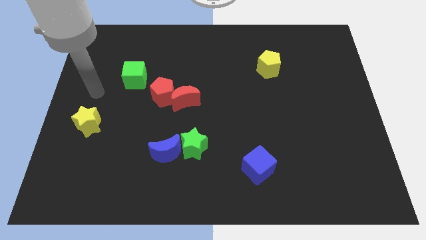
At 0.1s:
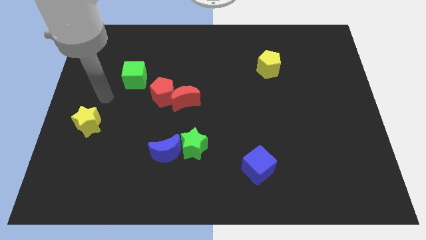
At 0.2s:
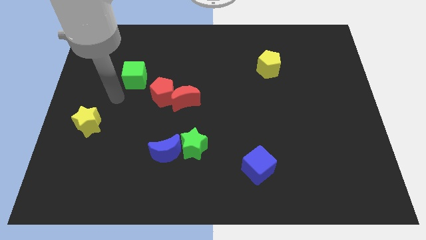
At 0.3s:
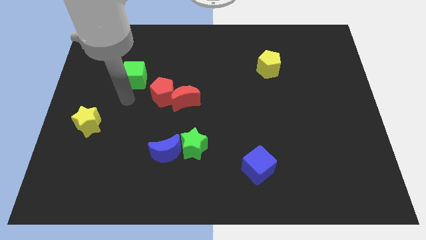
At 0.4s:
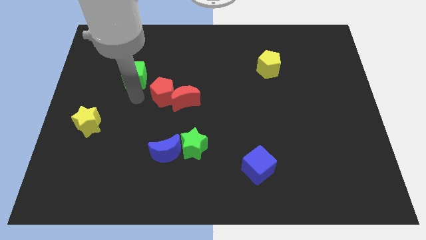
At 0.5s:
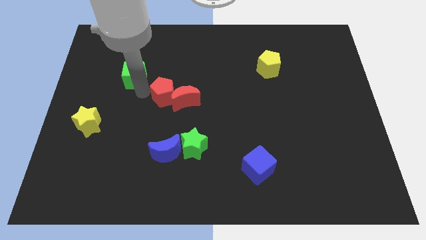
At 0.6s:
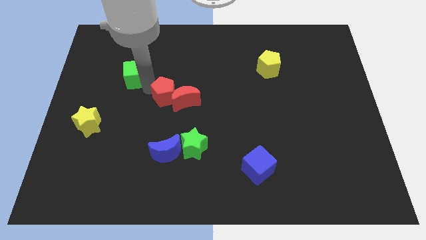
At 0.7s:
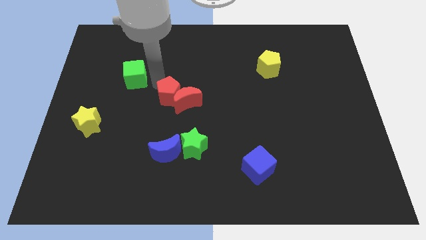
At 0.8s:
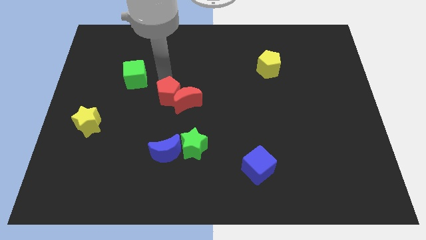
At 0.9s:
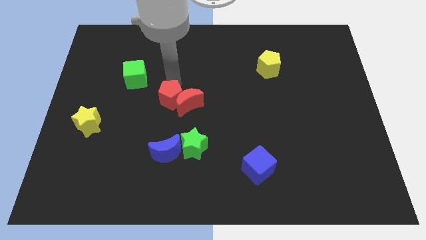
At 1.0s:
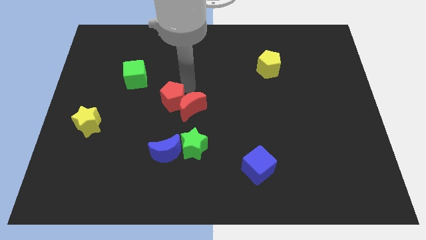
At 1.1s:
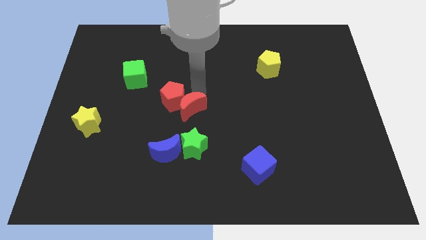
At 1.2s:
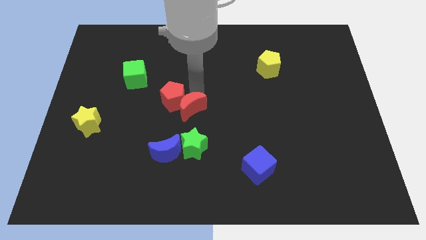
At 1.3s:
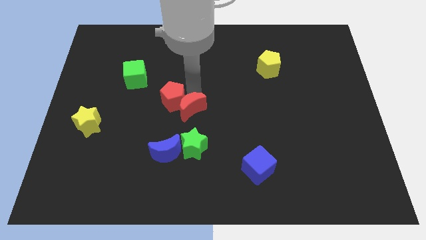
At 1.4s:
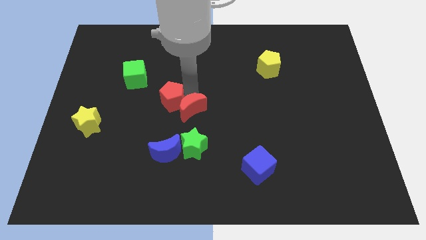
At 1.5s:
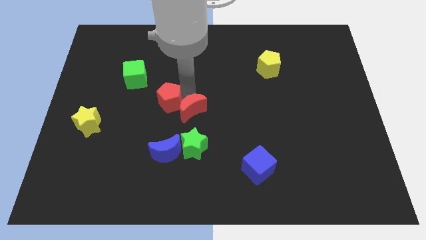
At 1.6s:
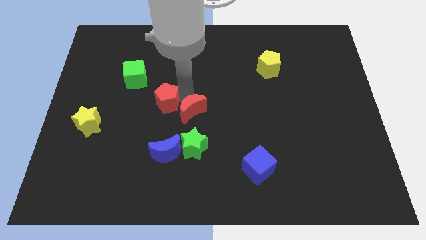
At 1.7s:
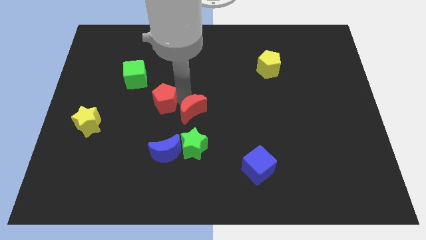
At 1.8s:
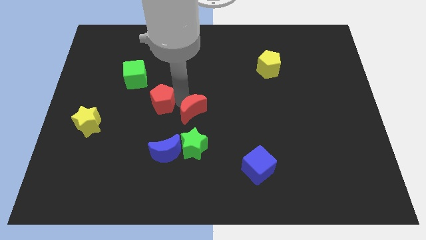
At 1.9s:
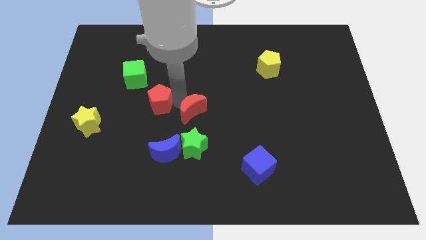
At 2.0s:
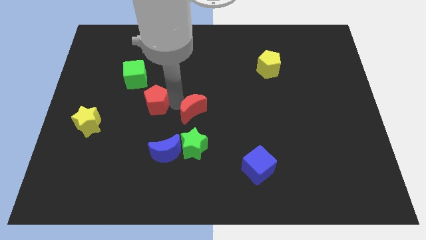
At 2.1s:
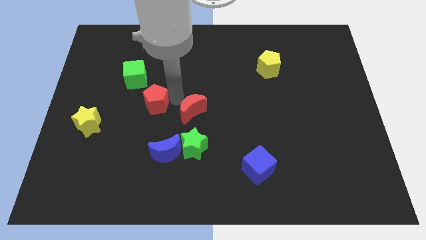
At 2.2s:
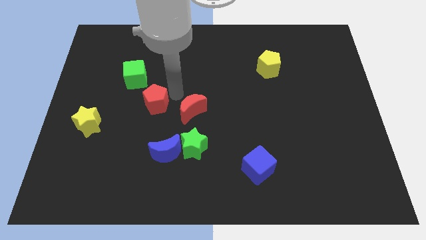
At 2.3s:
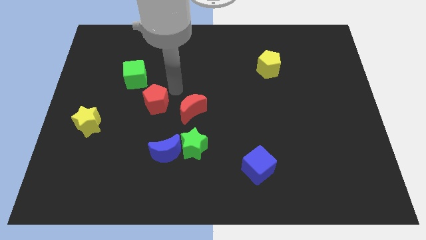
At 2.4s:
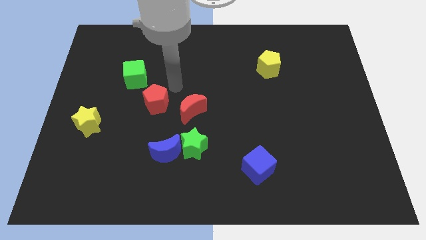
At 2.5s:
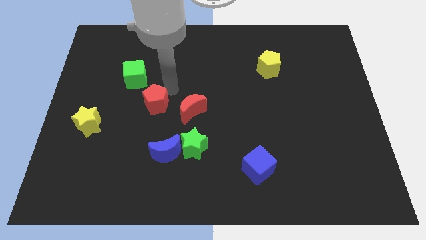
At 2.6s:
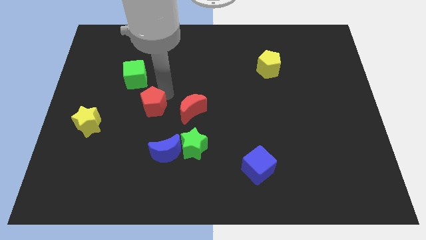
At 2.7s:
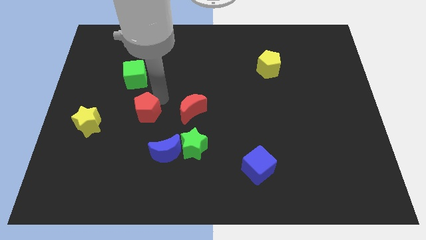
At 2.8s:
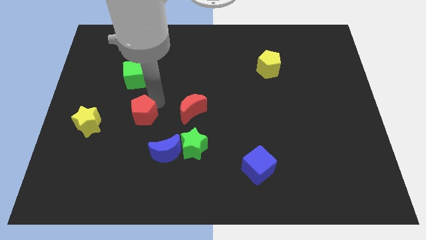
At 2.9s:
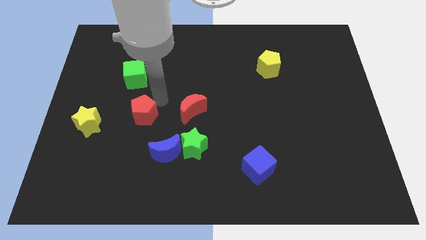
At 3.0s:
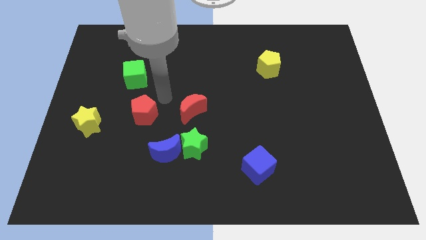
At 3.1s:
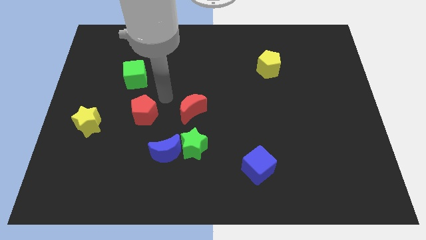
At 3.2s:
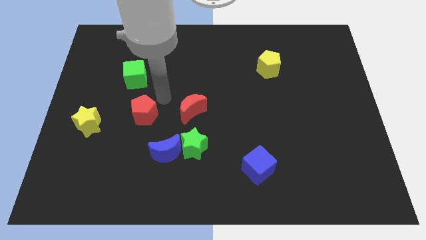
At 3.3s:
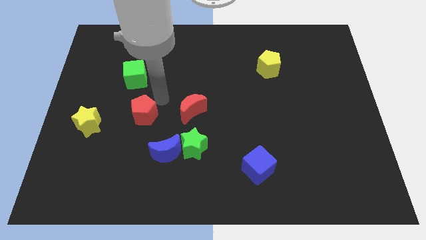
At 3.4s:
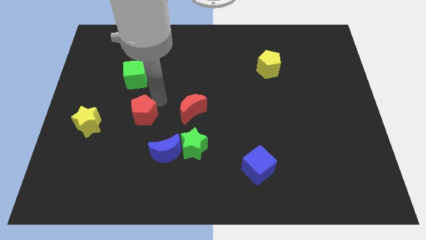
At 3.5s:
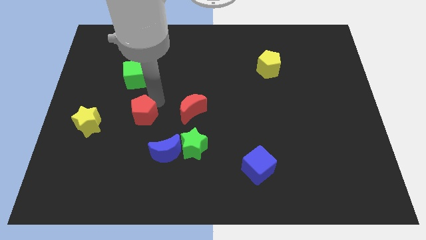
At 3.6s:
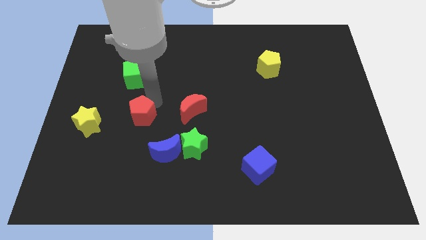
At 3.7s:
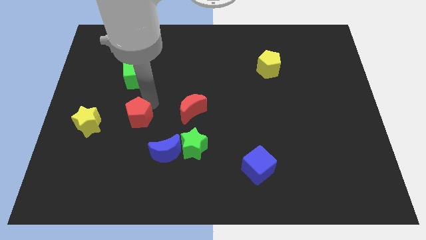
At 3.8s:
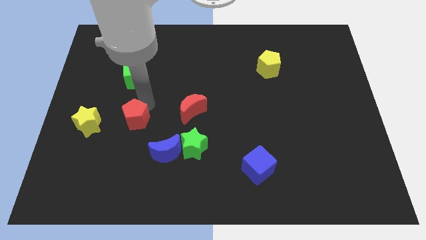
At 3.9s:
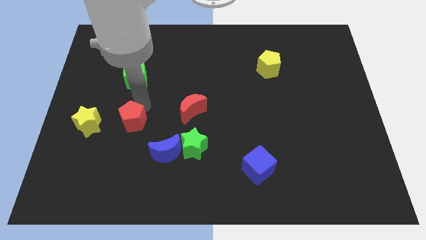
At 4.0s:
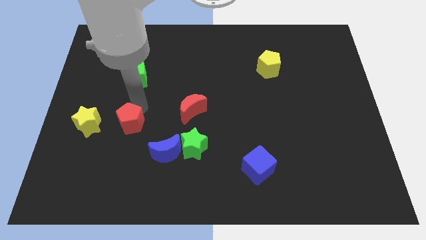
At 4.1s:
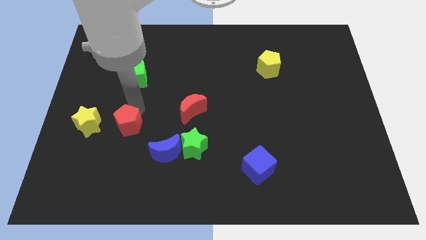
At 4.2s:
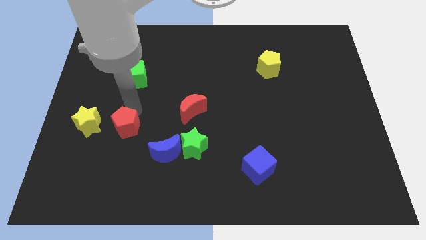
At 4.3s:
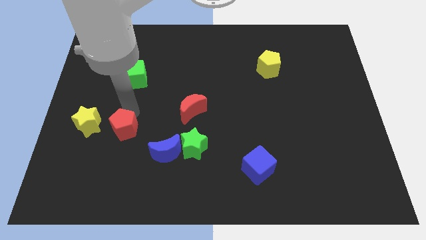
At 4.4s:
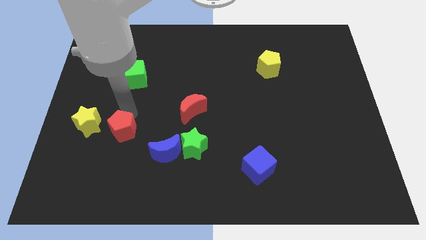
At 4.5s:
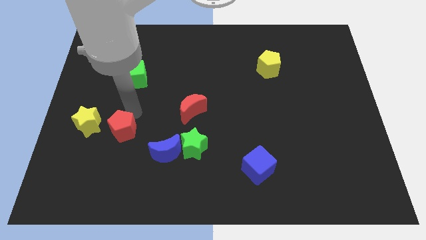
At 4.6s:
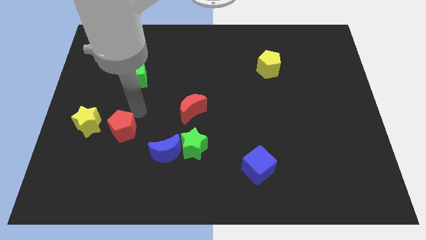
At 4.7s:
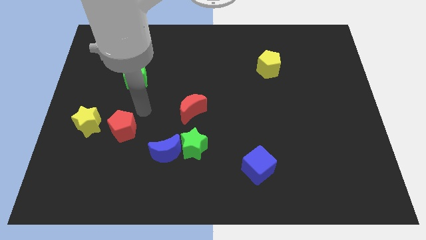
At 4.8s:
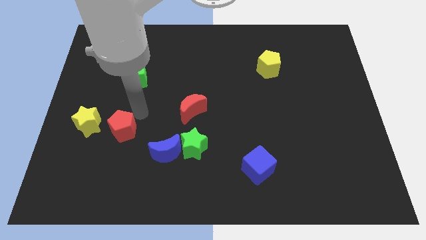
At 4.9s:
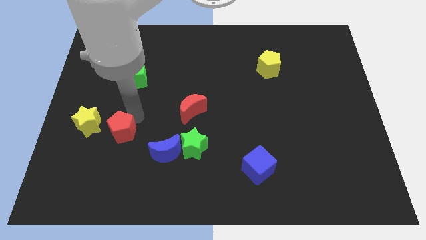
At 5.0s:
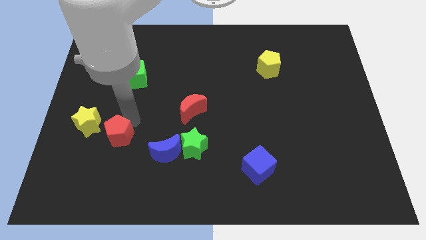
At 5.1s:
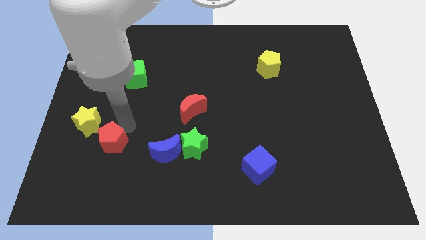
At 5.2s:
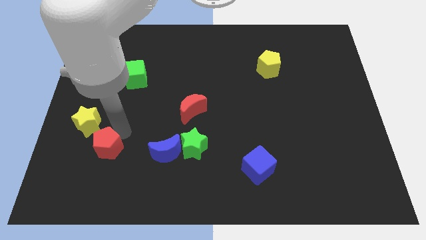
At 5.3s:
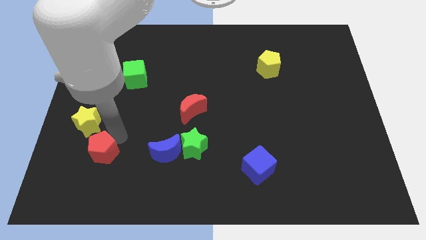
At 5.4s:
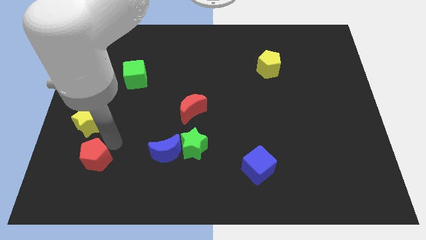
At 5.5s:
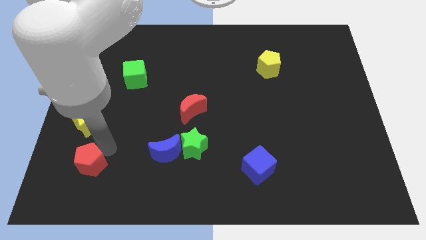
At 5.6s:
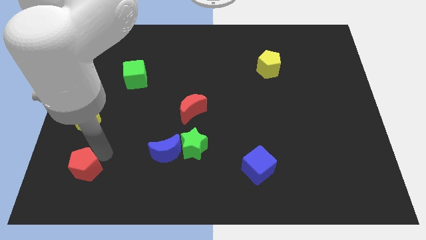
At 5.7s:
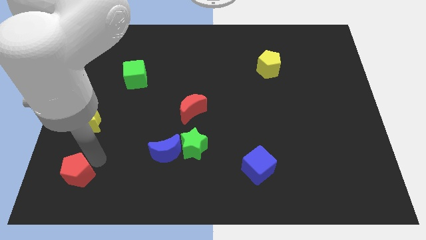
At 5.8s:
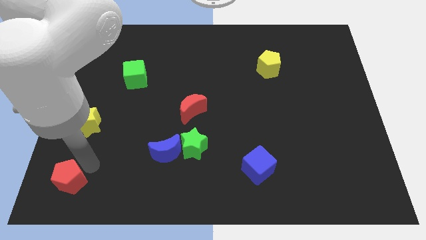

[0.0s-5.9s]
move the red pentagon to the bottom left of the board
